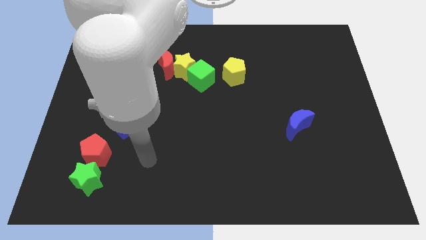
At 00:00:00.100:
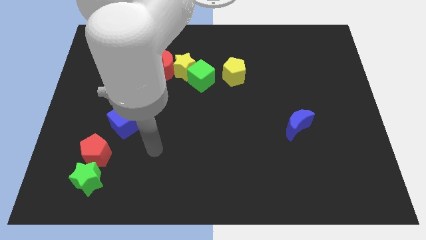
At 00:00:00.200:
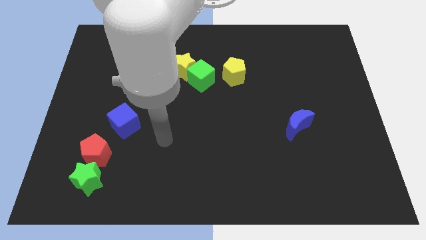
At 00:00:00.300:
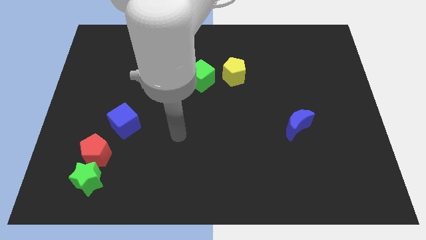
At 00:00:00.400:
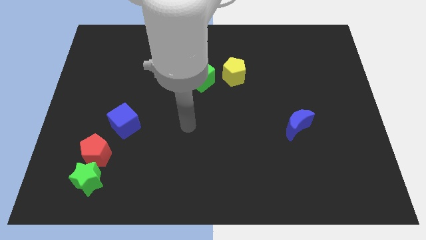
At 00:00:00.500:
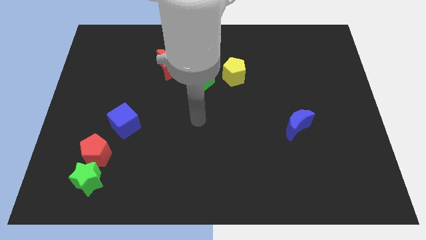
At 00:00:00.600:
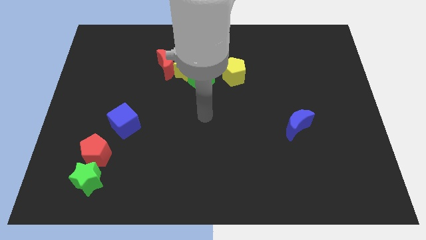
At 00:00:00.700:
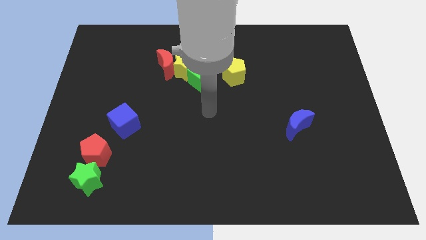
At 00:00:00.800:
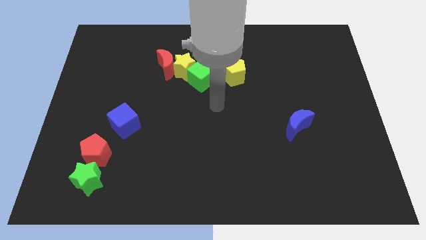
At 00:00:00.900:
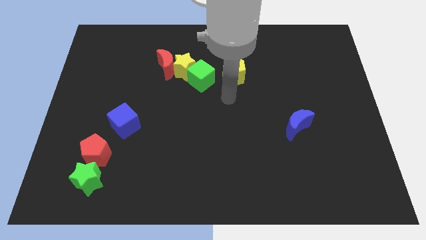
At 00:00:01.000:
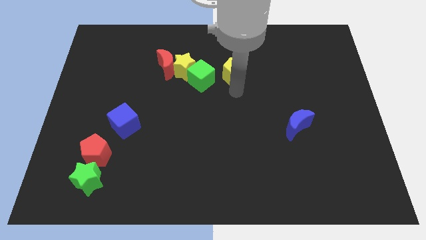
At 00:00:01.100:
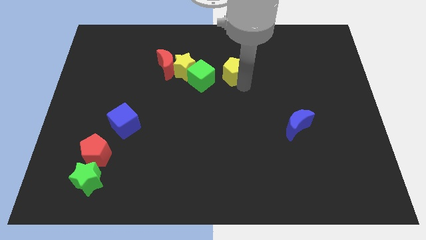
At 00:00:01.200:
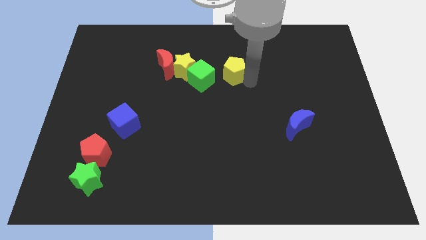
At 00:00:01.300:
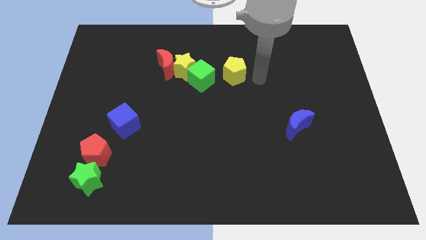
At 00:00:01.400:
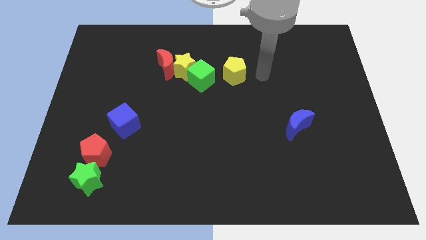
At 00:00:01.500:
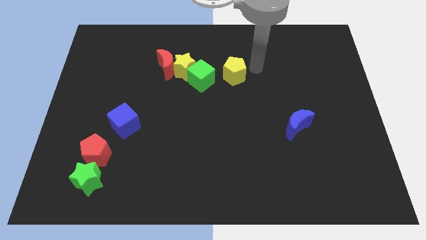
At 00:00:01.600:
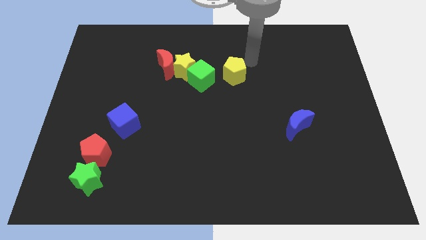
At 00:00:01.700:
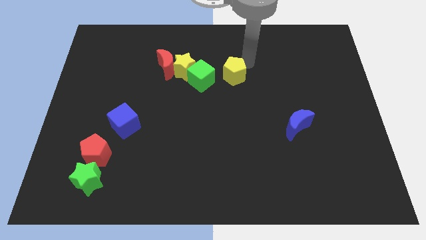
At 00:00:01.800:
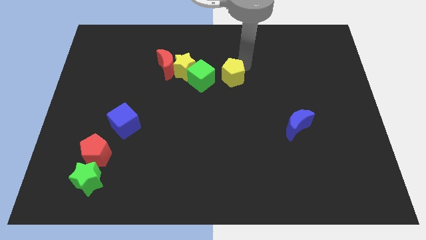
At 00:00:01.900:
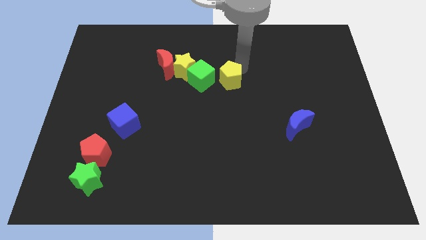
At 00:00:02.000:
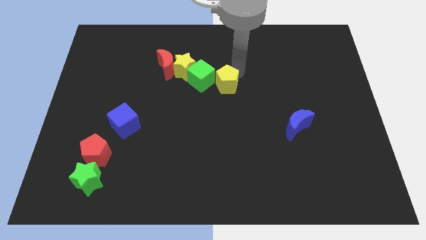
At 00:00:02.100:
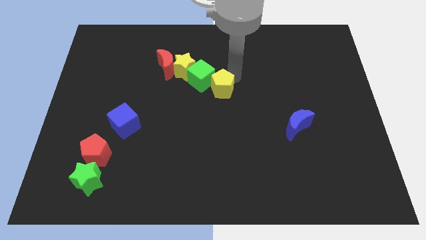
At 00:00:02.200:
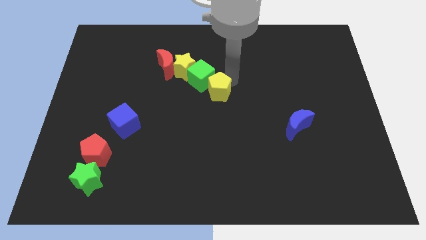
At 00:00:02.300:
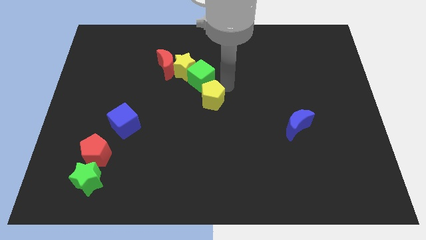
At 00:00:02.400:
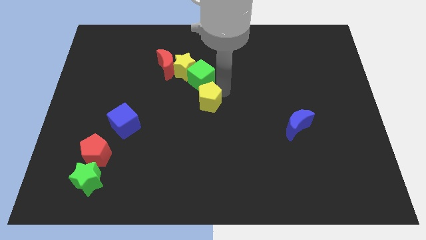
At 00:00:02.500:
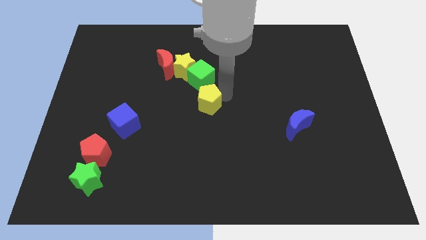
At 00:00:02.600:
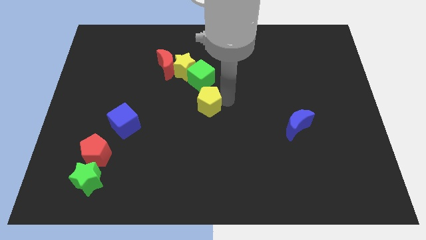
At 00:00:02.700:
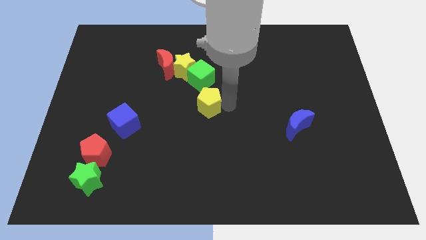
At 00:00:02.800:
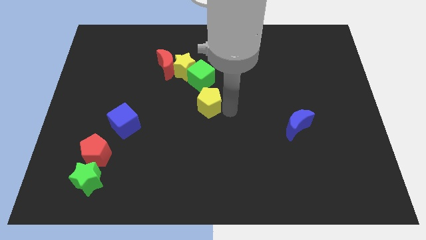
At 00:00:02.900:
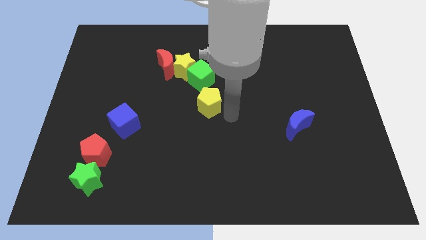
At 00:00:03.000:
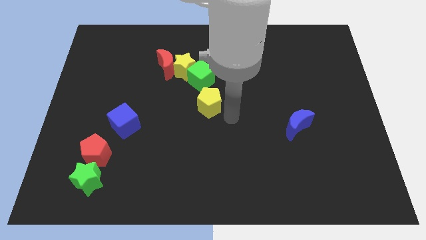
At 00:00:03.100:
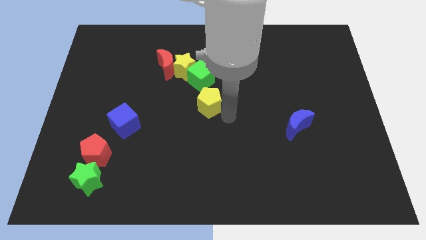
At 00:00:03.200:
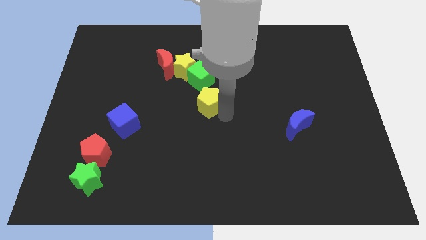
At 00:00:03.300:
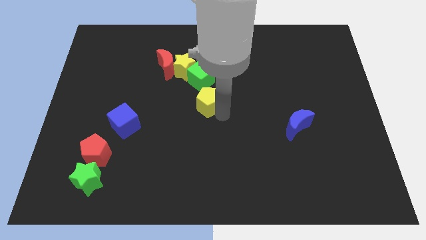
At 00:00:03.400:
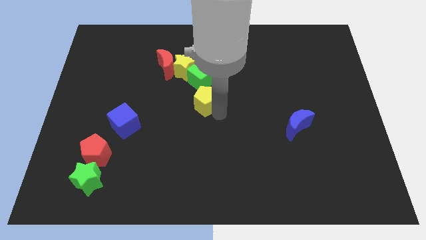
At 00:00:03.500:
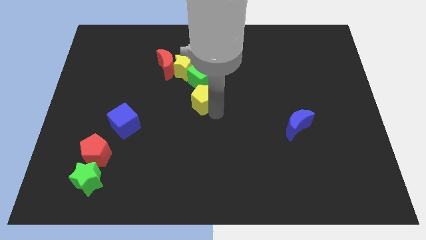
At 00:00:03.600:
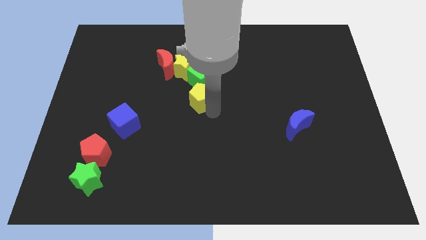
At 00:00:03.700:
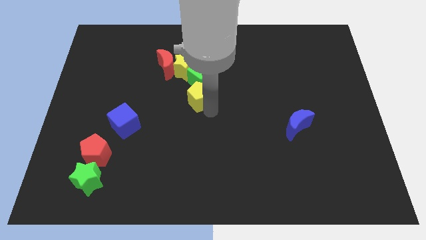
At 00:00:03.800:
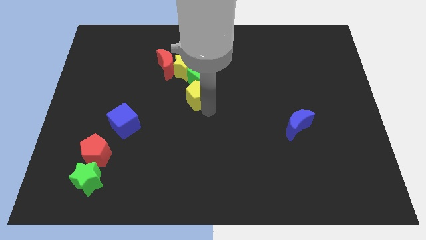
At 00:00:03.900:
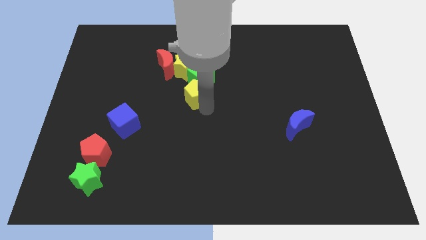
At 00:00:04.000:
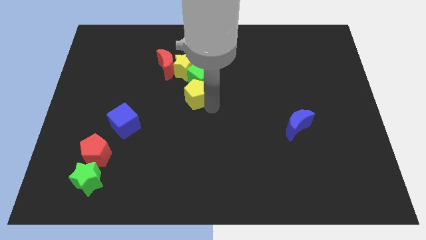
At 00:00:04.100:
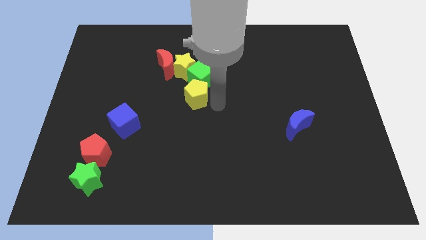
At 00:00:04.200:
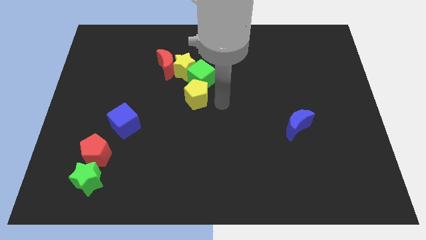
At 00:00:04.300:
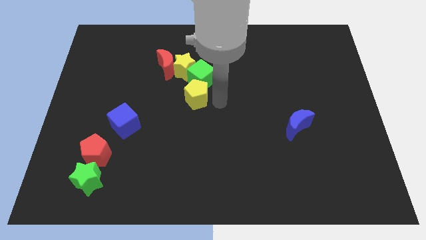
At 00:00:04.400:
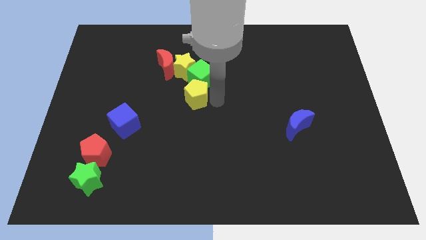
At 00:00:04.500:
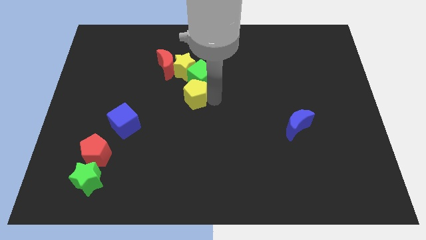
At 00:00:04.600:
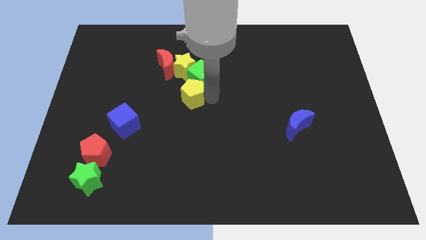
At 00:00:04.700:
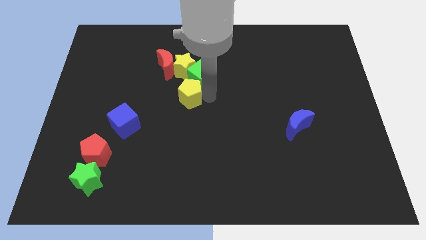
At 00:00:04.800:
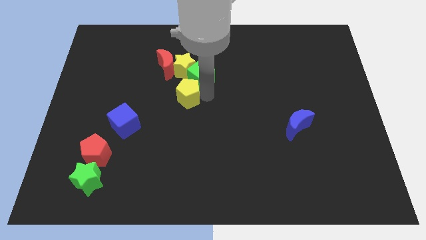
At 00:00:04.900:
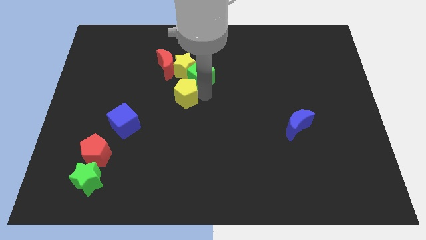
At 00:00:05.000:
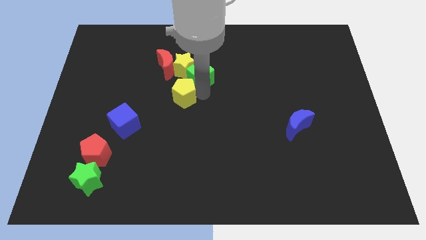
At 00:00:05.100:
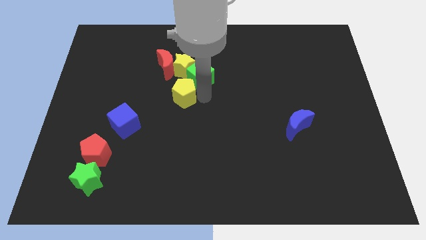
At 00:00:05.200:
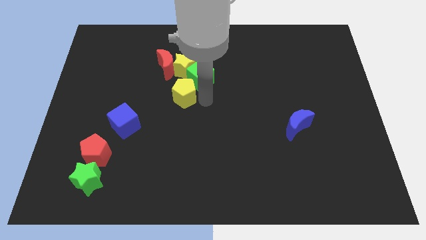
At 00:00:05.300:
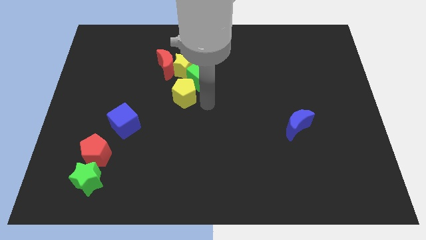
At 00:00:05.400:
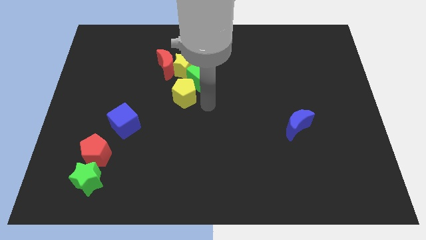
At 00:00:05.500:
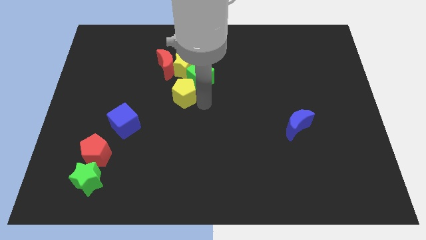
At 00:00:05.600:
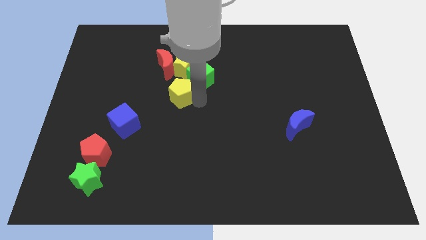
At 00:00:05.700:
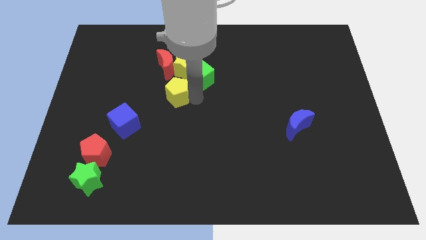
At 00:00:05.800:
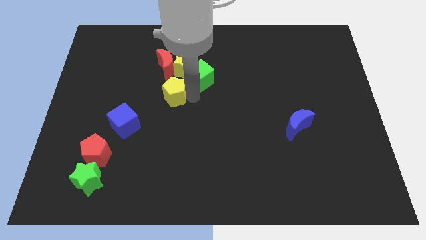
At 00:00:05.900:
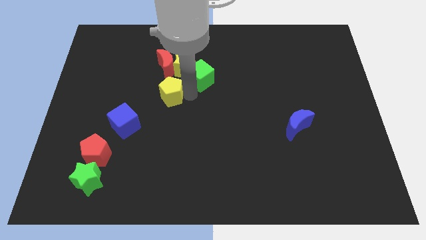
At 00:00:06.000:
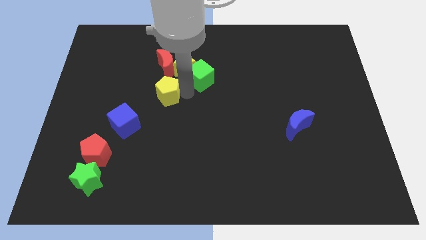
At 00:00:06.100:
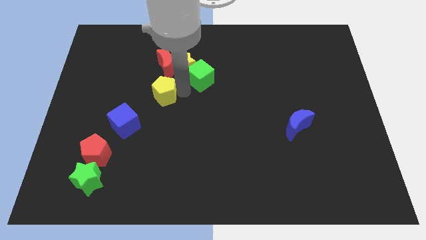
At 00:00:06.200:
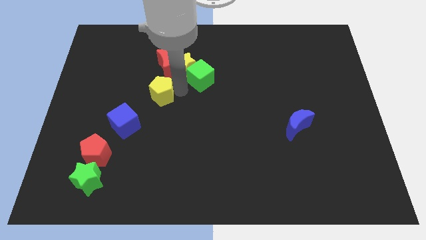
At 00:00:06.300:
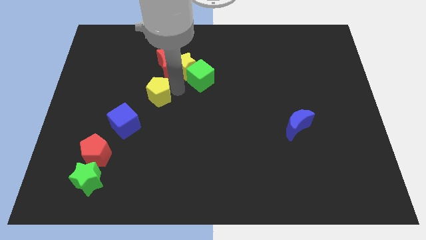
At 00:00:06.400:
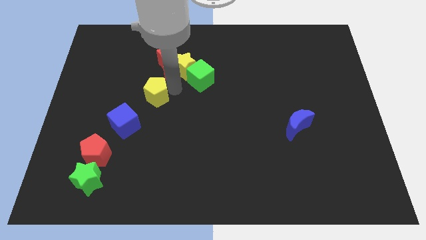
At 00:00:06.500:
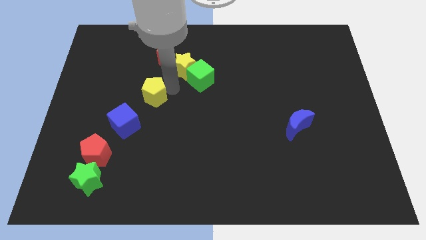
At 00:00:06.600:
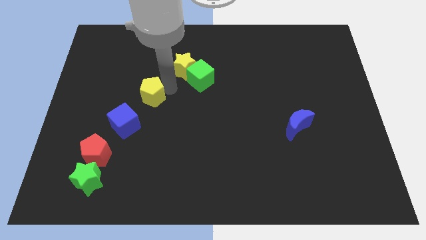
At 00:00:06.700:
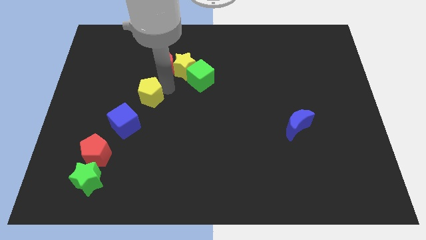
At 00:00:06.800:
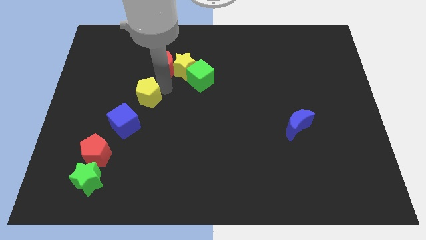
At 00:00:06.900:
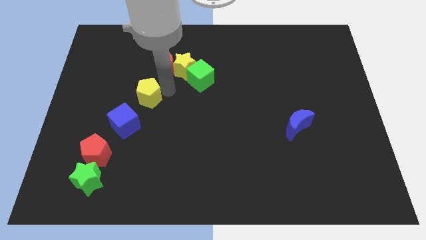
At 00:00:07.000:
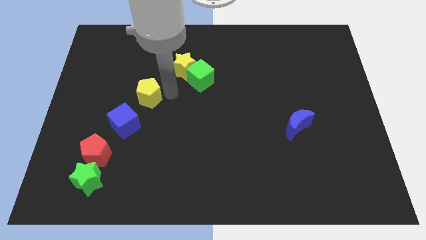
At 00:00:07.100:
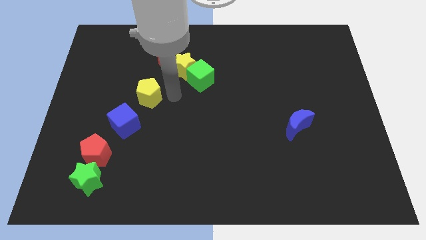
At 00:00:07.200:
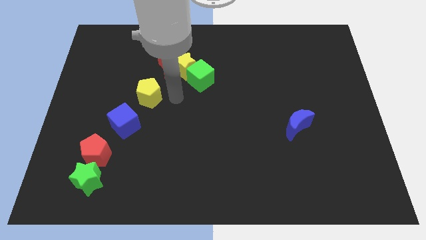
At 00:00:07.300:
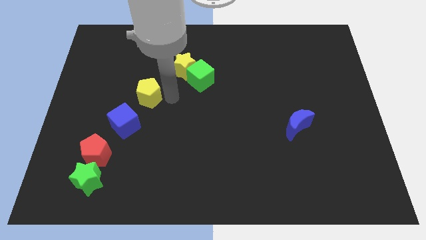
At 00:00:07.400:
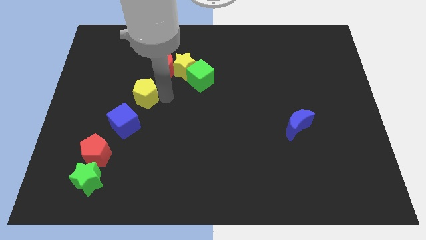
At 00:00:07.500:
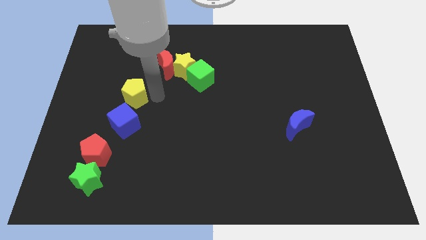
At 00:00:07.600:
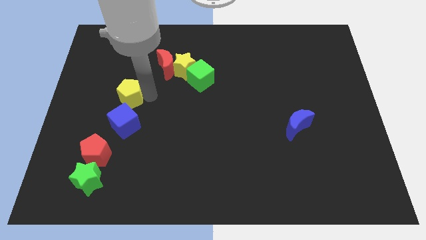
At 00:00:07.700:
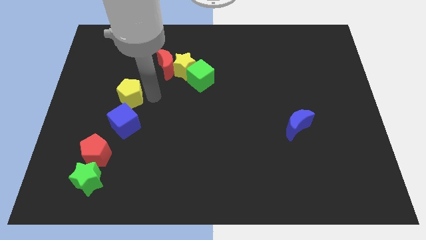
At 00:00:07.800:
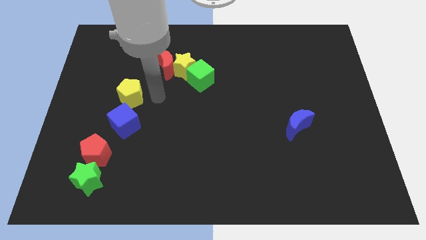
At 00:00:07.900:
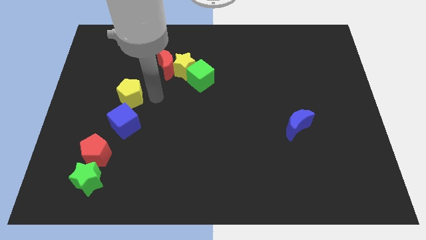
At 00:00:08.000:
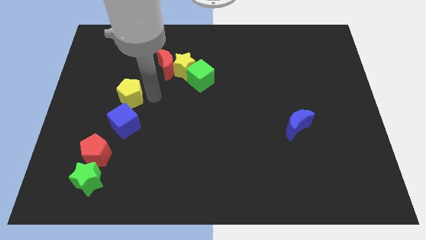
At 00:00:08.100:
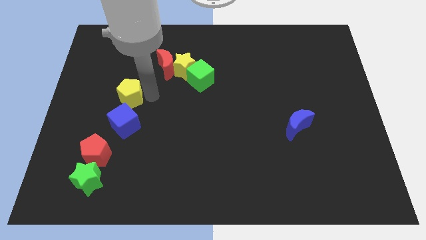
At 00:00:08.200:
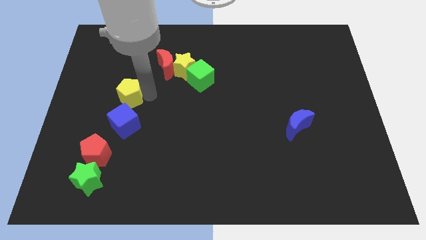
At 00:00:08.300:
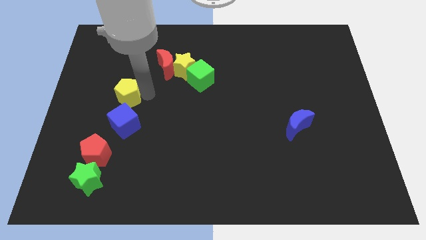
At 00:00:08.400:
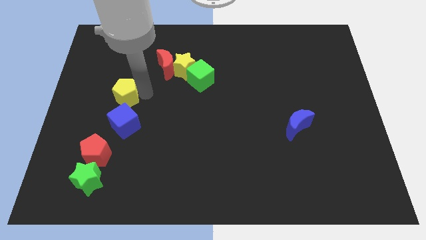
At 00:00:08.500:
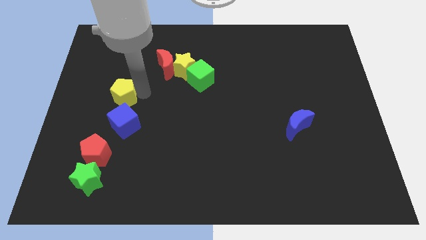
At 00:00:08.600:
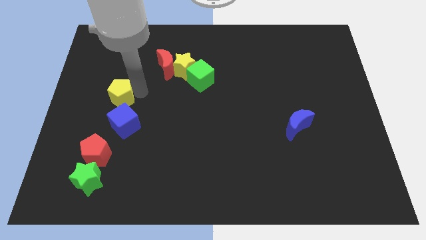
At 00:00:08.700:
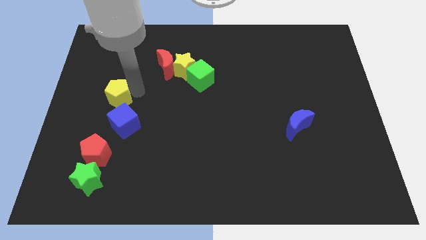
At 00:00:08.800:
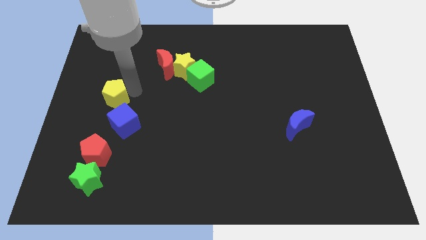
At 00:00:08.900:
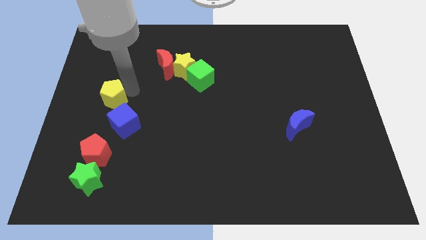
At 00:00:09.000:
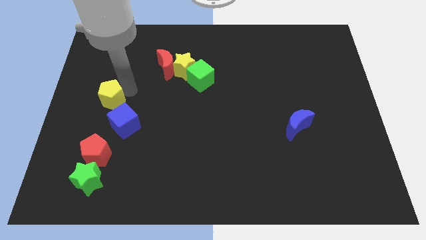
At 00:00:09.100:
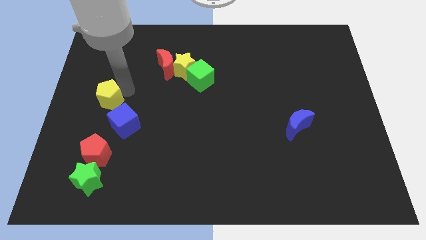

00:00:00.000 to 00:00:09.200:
slide the yellow pentagon to the center left
